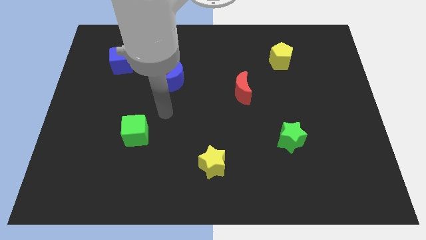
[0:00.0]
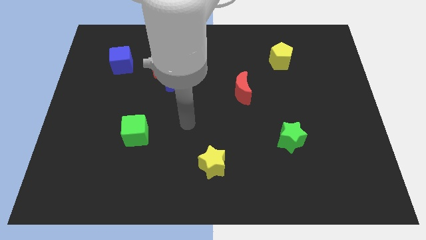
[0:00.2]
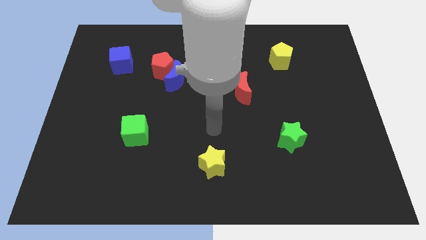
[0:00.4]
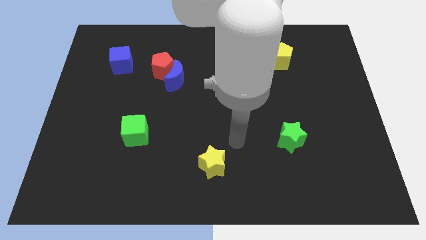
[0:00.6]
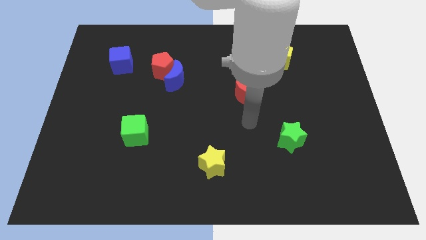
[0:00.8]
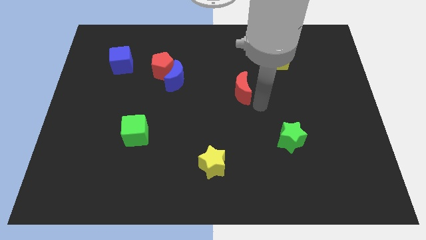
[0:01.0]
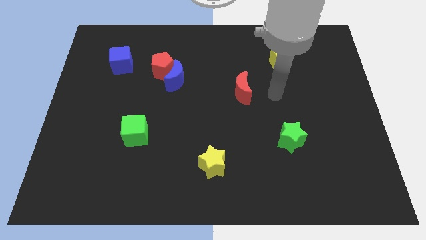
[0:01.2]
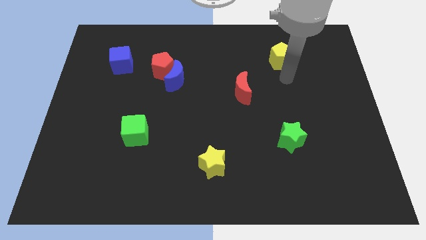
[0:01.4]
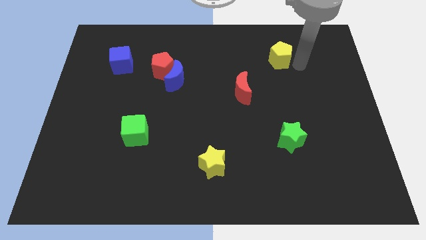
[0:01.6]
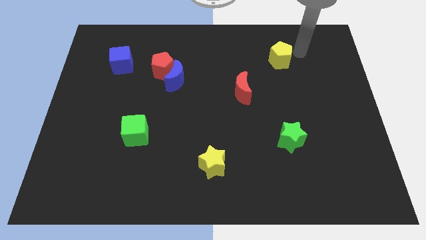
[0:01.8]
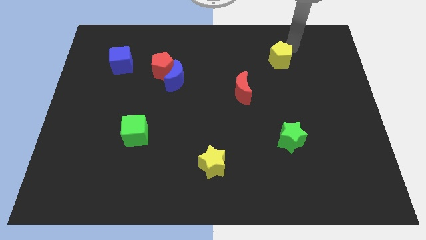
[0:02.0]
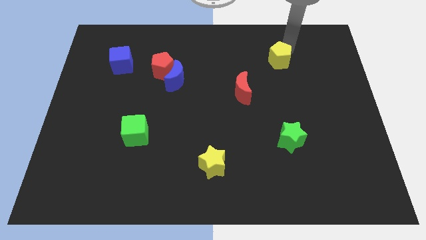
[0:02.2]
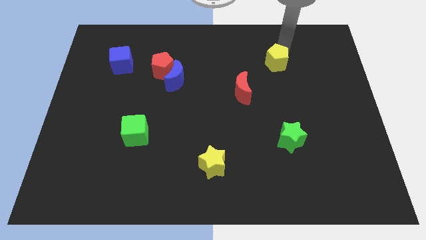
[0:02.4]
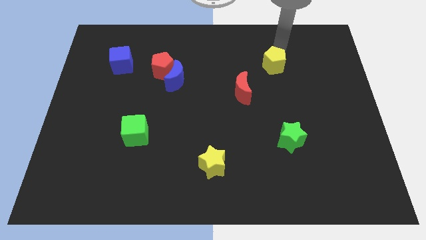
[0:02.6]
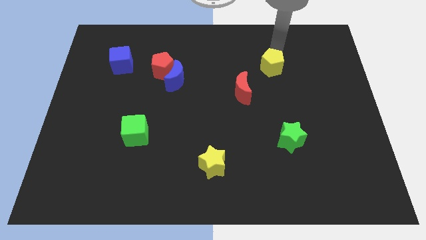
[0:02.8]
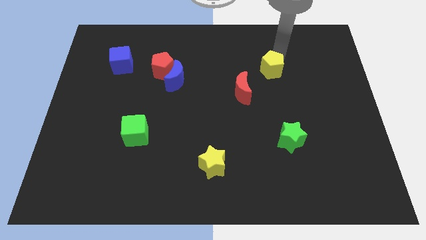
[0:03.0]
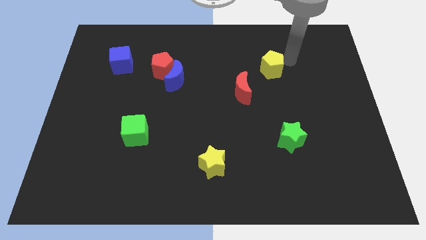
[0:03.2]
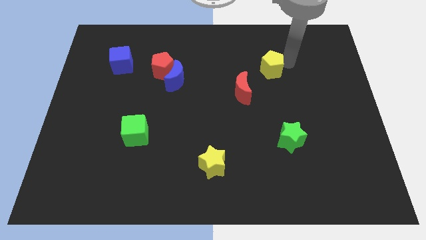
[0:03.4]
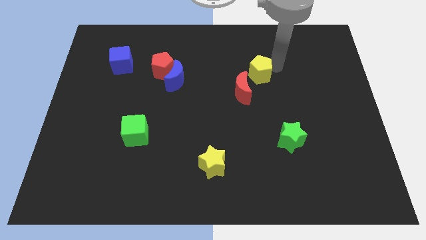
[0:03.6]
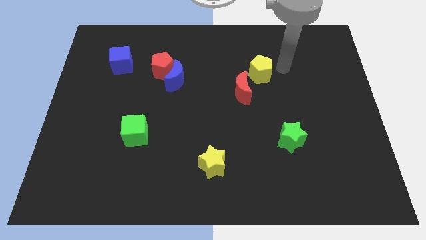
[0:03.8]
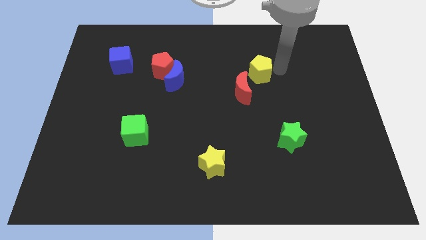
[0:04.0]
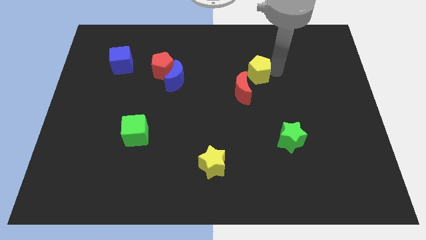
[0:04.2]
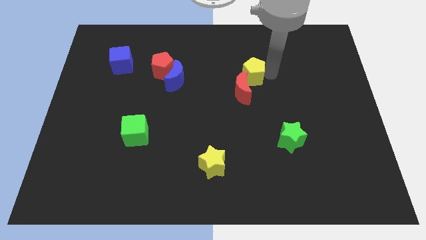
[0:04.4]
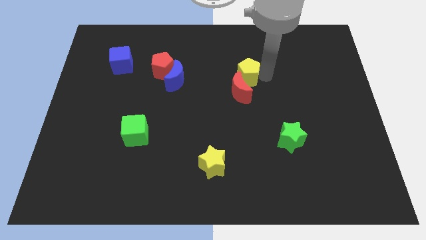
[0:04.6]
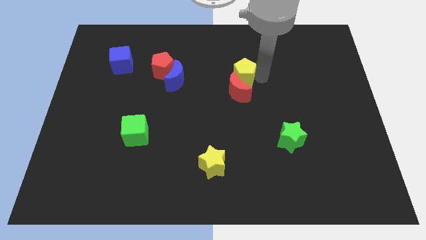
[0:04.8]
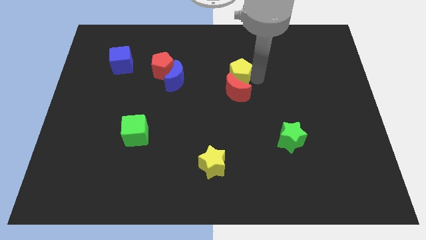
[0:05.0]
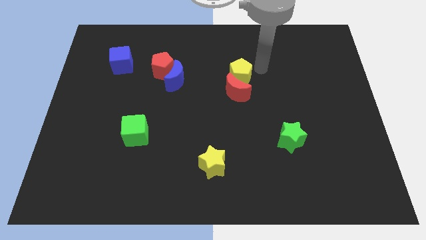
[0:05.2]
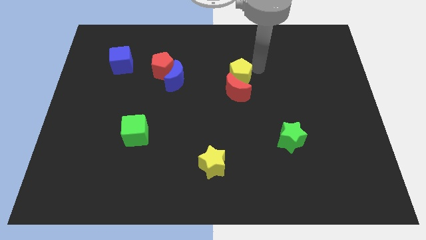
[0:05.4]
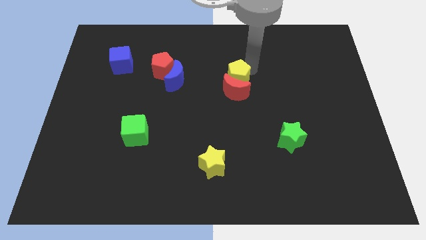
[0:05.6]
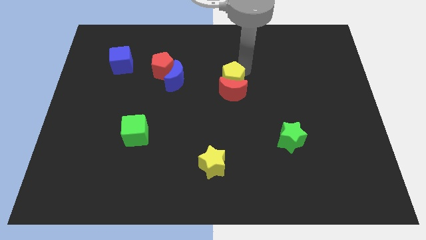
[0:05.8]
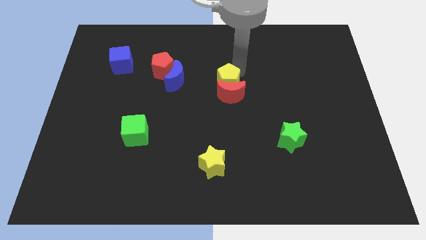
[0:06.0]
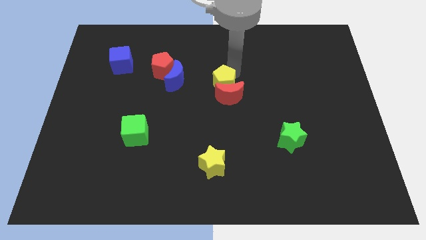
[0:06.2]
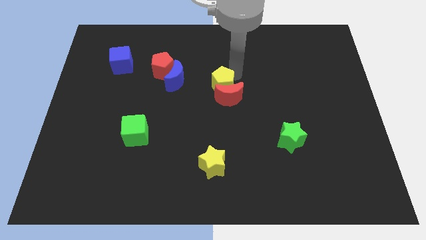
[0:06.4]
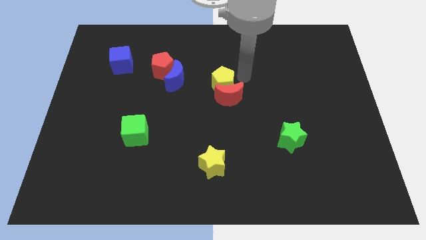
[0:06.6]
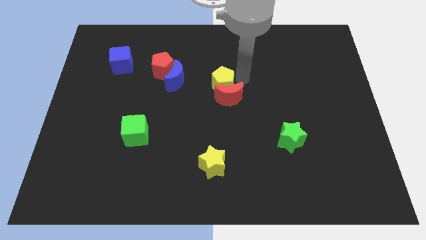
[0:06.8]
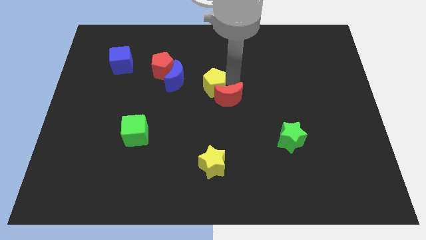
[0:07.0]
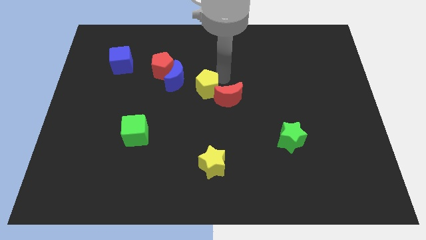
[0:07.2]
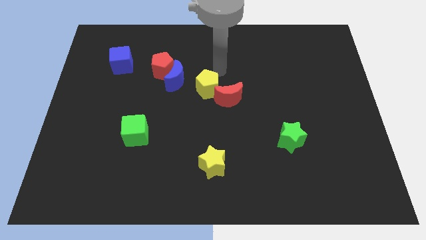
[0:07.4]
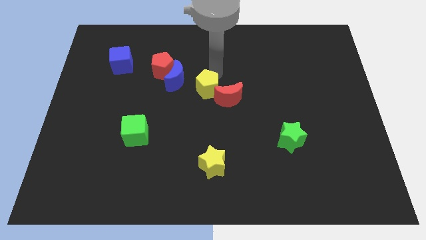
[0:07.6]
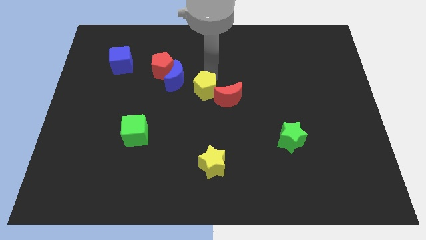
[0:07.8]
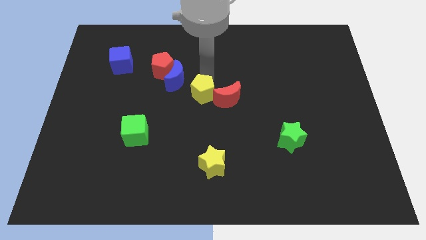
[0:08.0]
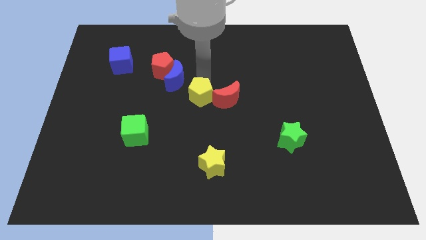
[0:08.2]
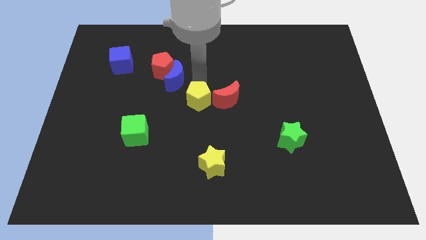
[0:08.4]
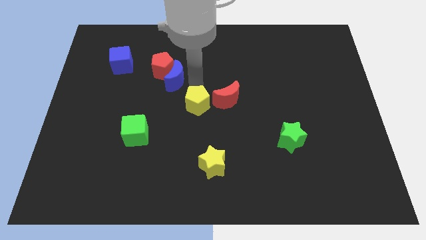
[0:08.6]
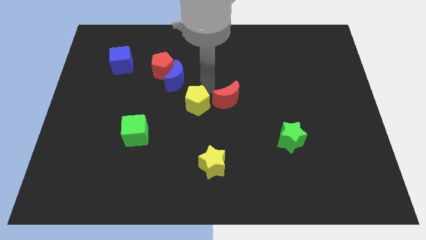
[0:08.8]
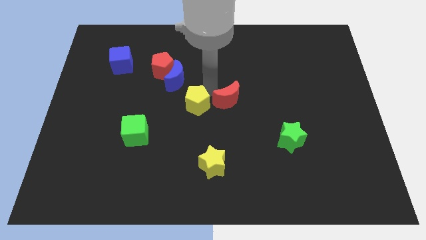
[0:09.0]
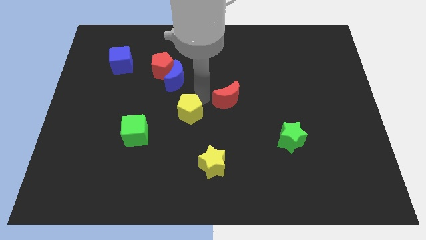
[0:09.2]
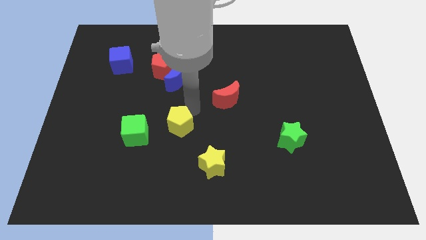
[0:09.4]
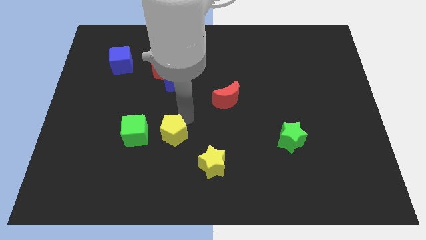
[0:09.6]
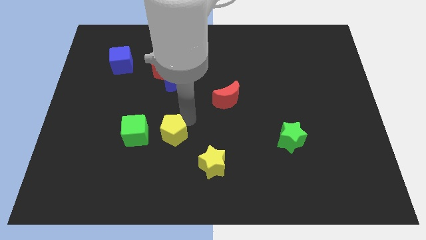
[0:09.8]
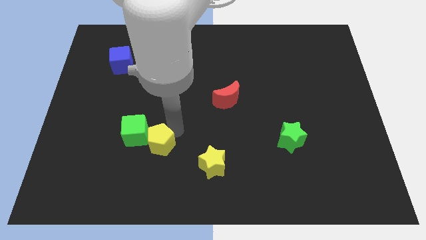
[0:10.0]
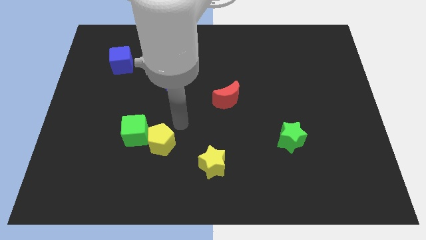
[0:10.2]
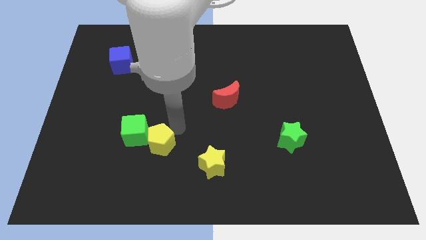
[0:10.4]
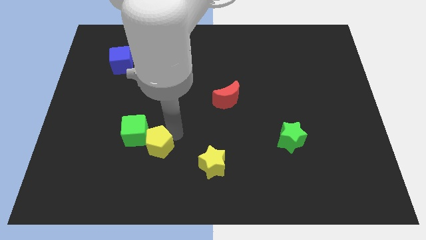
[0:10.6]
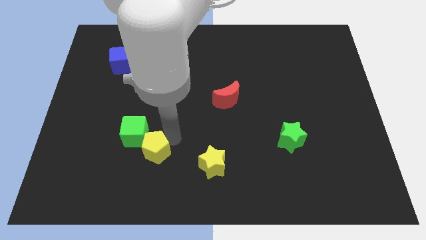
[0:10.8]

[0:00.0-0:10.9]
push the yellow pentagon to the bottom of the green cube

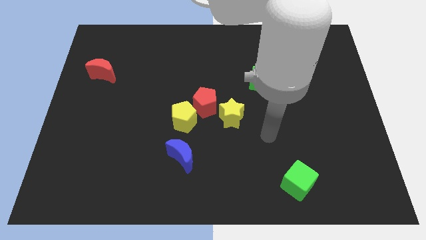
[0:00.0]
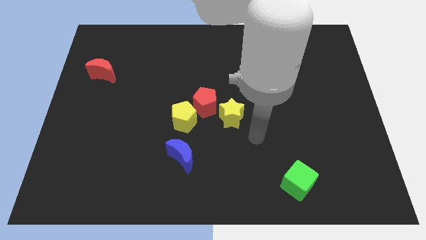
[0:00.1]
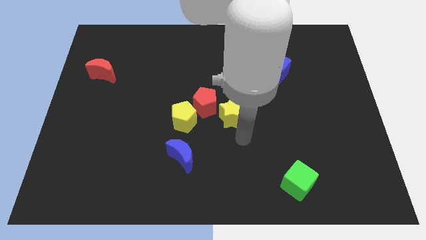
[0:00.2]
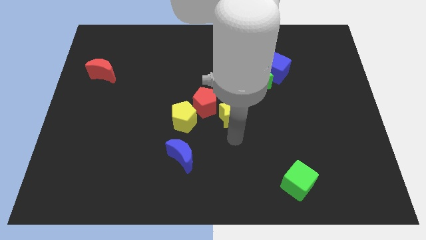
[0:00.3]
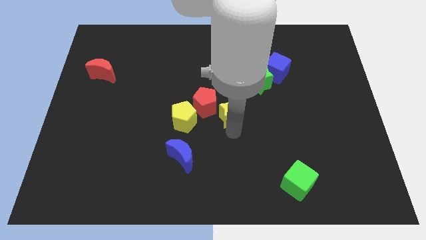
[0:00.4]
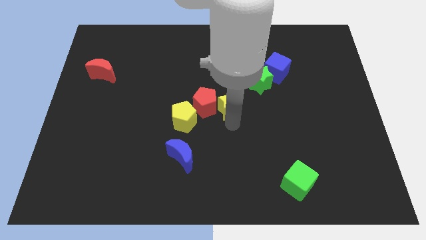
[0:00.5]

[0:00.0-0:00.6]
put the yellow star to the top right side of the red pentagon
